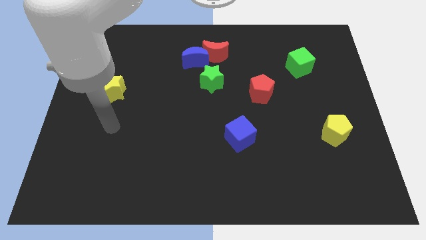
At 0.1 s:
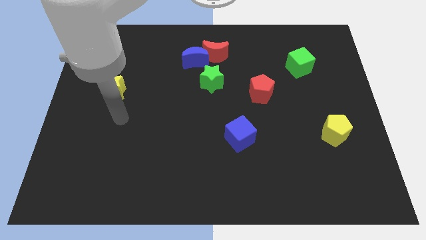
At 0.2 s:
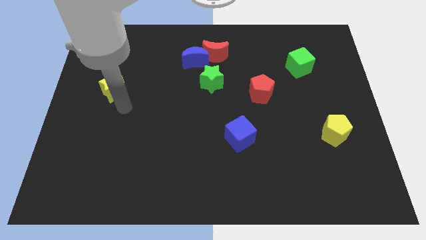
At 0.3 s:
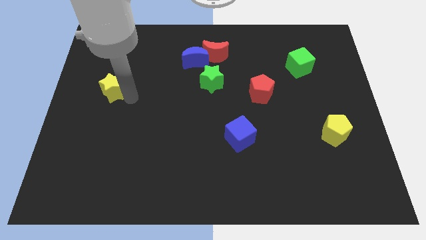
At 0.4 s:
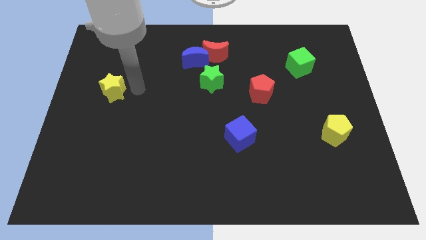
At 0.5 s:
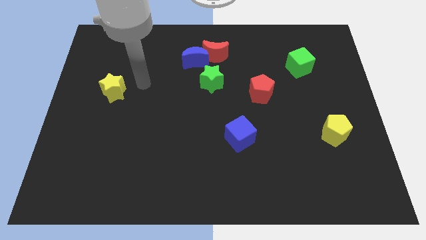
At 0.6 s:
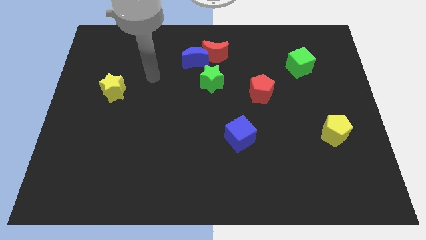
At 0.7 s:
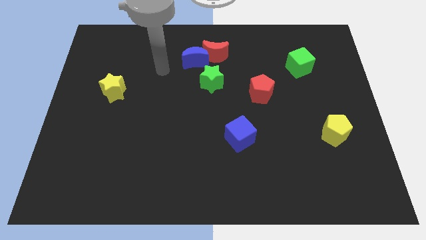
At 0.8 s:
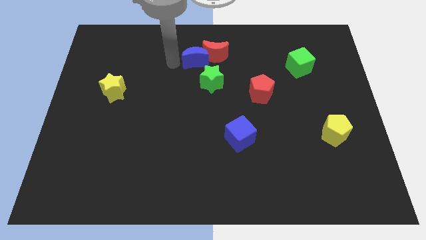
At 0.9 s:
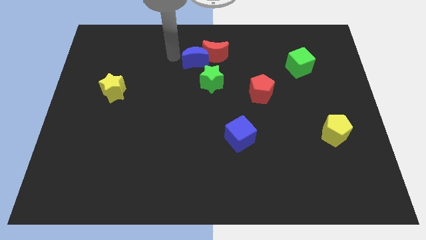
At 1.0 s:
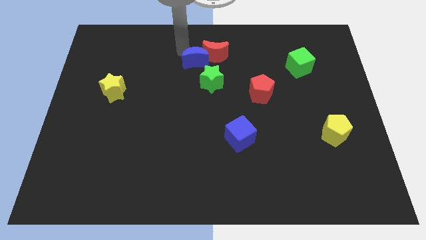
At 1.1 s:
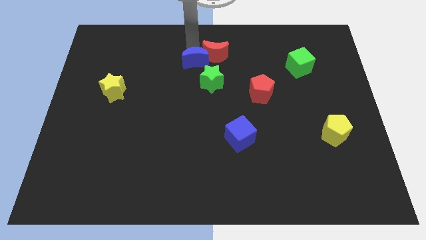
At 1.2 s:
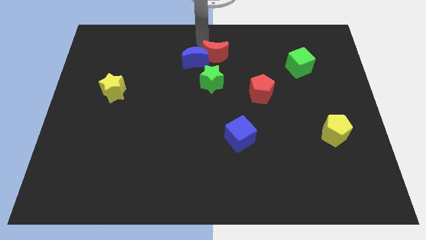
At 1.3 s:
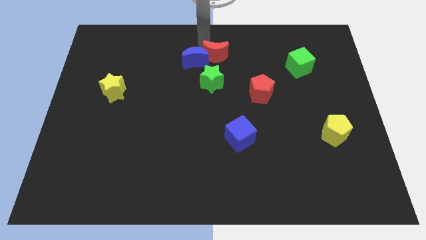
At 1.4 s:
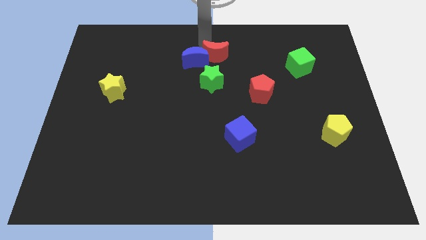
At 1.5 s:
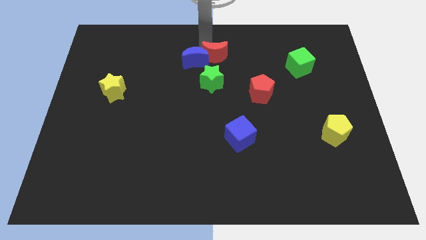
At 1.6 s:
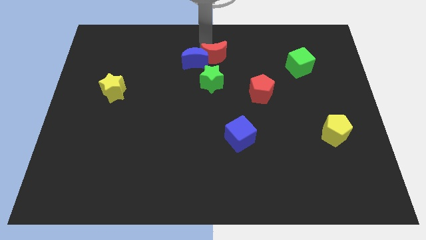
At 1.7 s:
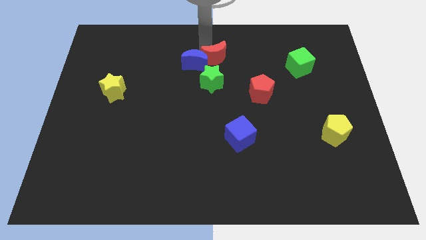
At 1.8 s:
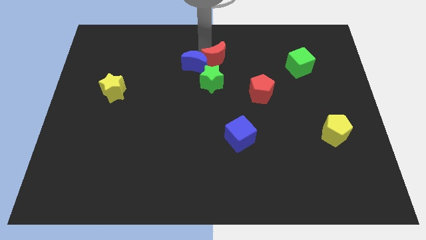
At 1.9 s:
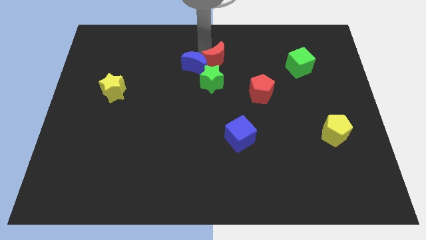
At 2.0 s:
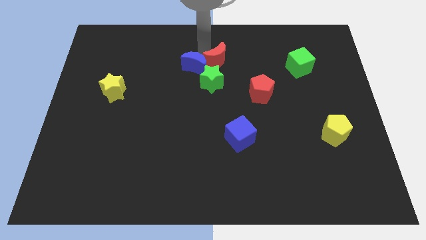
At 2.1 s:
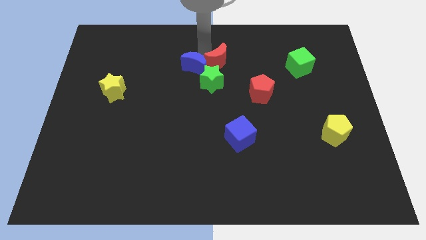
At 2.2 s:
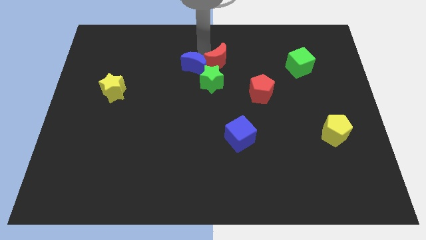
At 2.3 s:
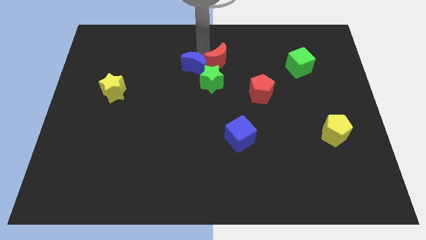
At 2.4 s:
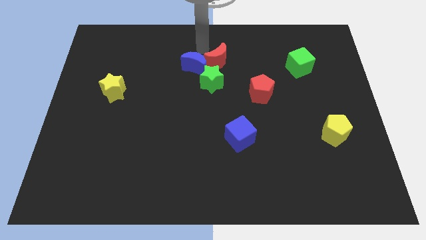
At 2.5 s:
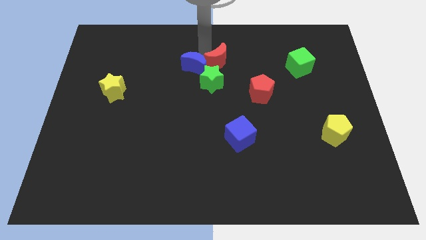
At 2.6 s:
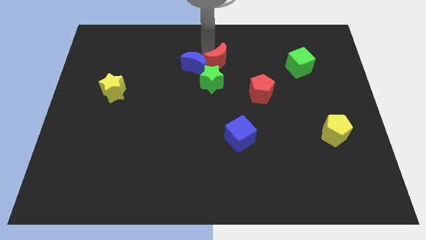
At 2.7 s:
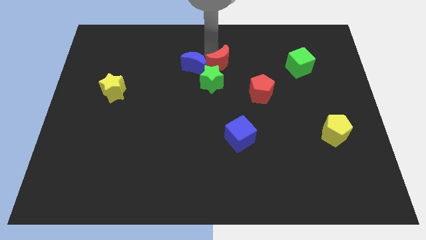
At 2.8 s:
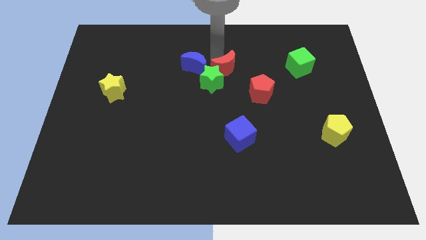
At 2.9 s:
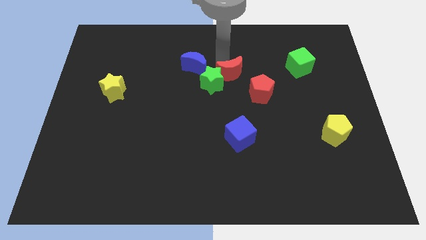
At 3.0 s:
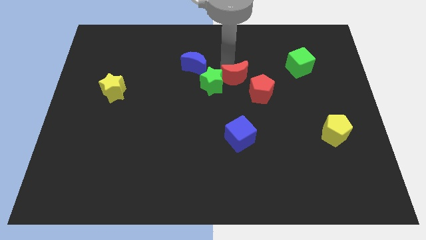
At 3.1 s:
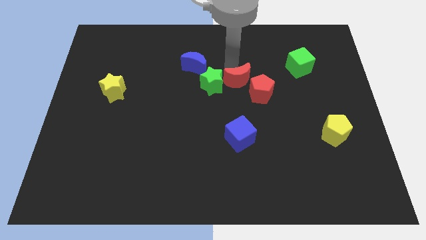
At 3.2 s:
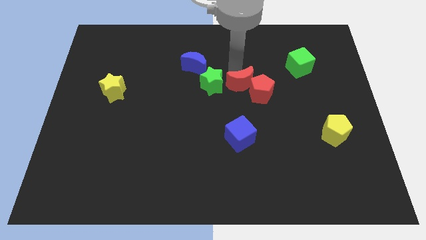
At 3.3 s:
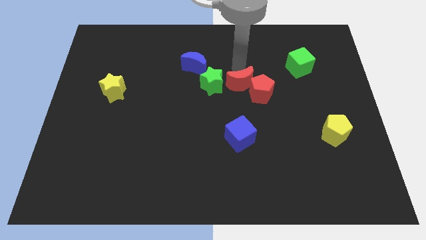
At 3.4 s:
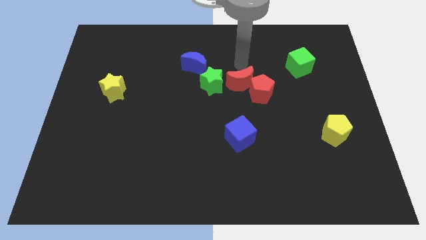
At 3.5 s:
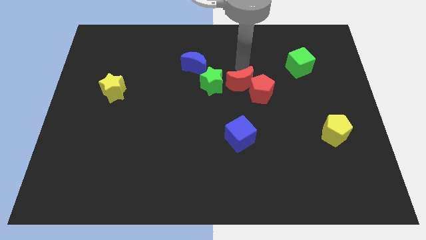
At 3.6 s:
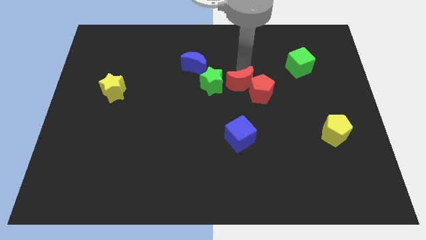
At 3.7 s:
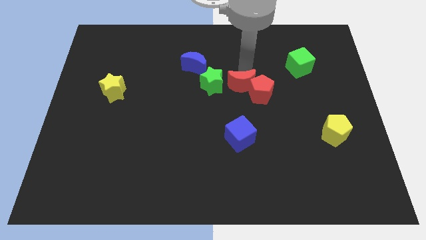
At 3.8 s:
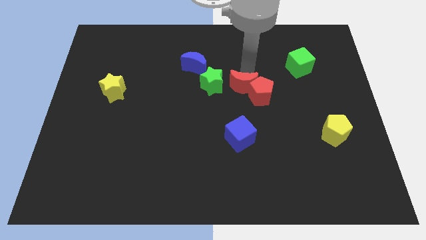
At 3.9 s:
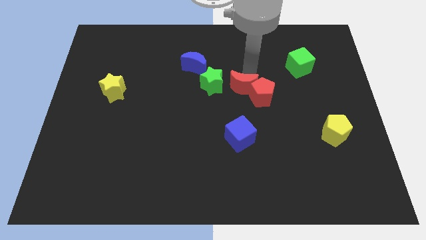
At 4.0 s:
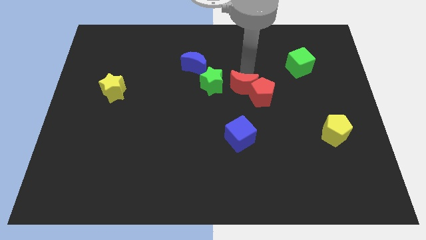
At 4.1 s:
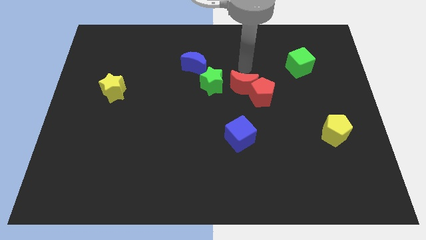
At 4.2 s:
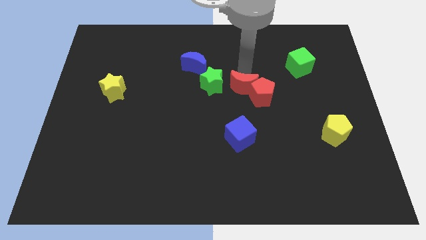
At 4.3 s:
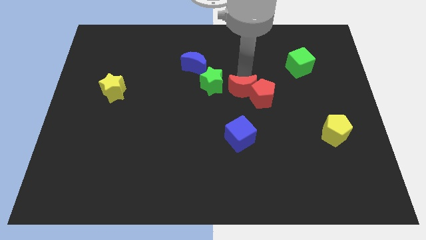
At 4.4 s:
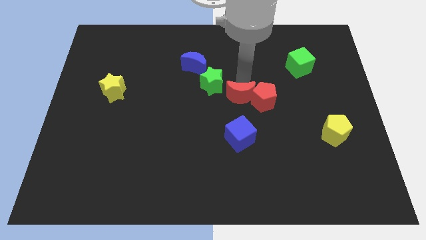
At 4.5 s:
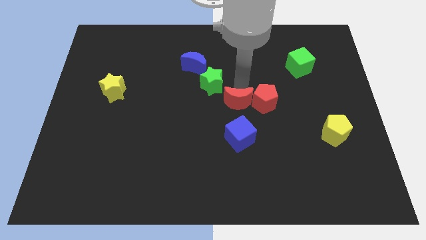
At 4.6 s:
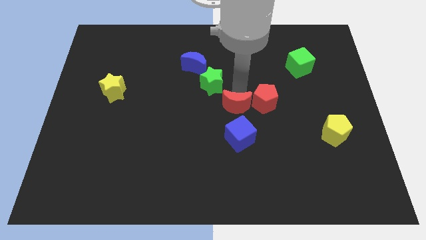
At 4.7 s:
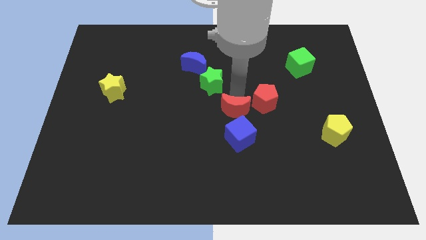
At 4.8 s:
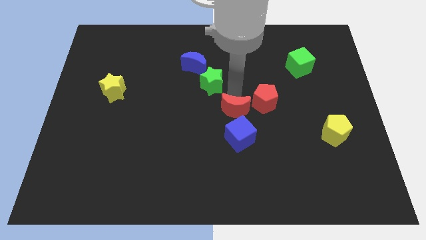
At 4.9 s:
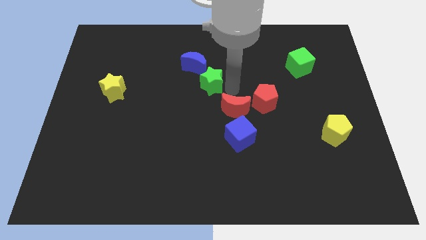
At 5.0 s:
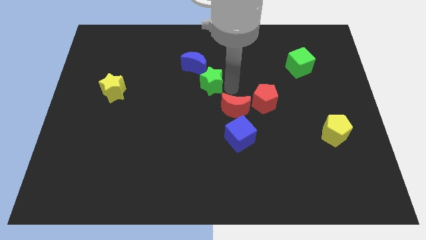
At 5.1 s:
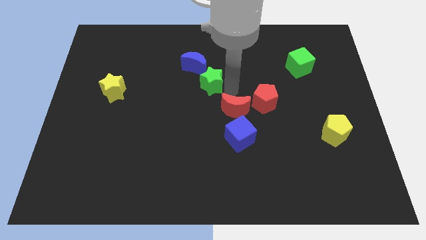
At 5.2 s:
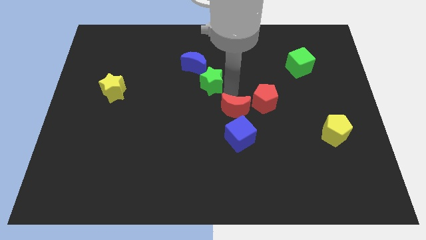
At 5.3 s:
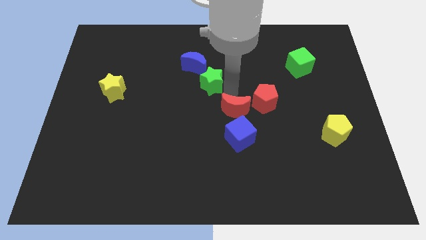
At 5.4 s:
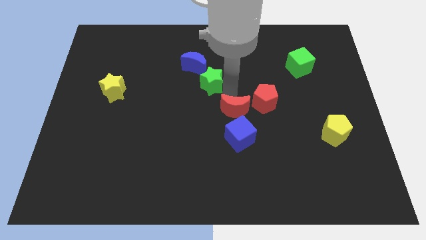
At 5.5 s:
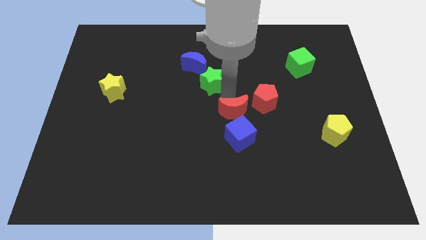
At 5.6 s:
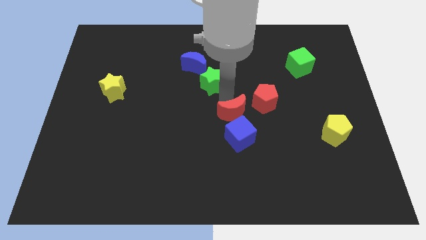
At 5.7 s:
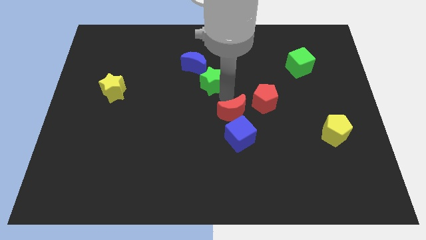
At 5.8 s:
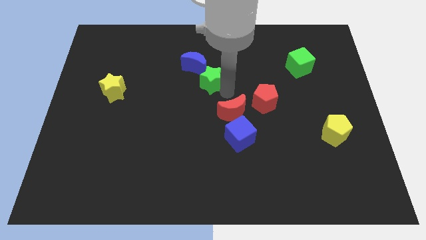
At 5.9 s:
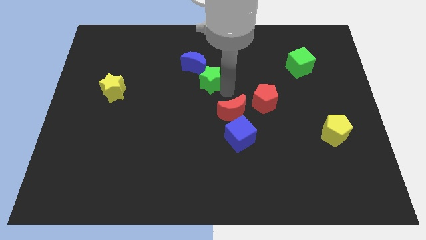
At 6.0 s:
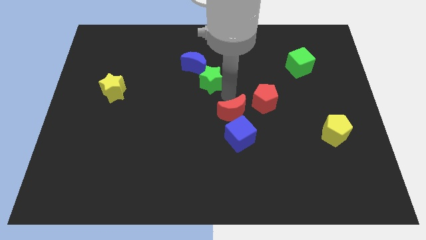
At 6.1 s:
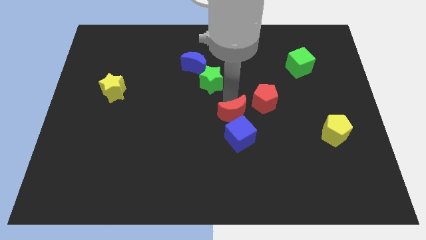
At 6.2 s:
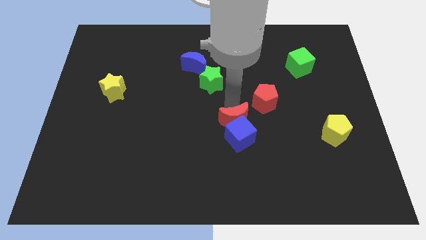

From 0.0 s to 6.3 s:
slide the red moon to the blue cube

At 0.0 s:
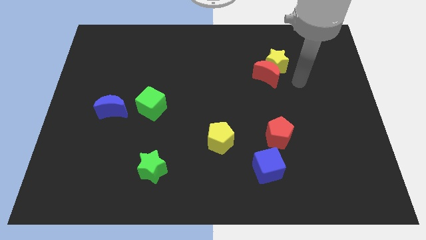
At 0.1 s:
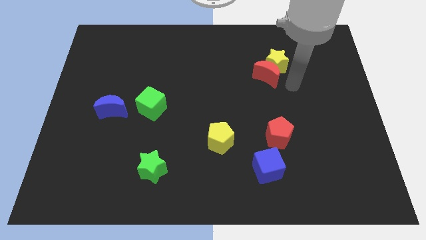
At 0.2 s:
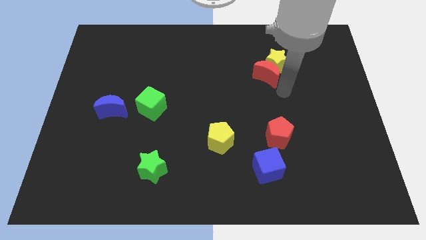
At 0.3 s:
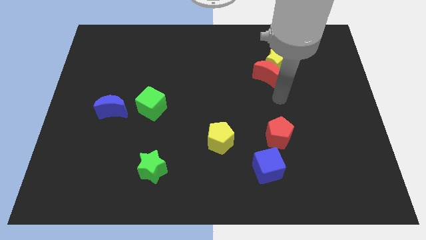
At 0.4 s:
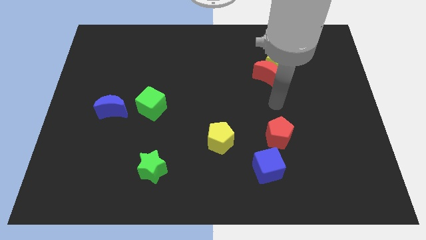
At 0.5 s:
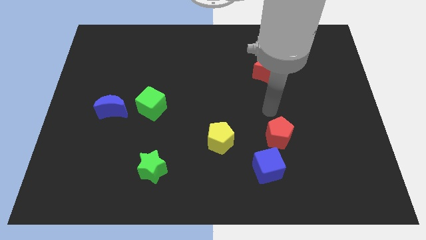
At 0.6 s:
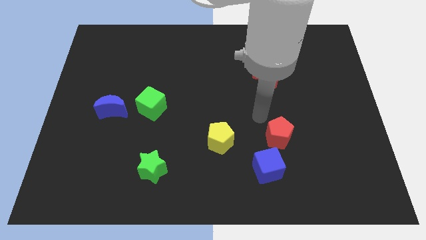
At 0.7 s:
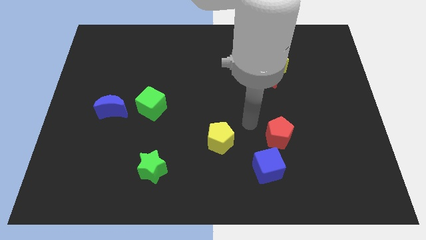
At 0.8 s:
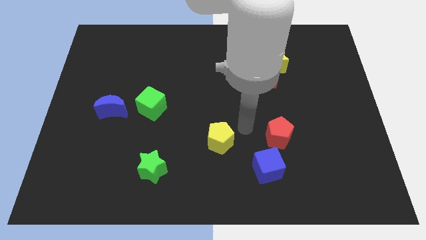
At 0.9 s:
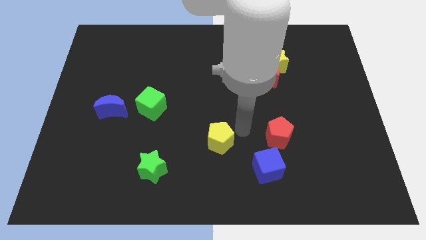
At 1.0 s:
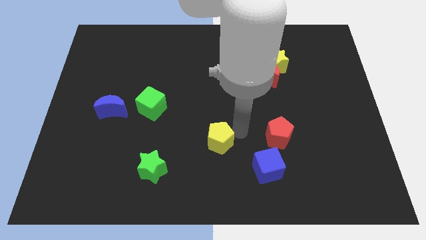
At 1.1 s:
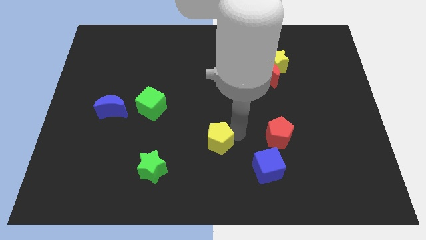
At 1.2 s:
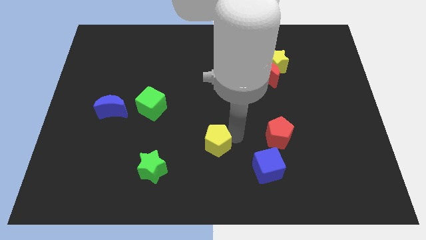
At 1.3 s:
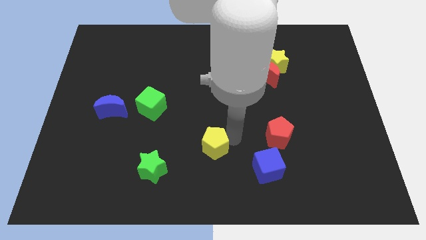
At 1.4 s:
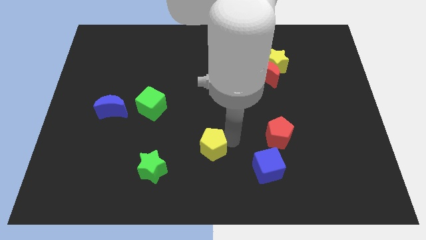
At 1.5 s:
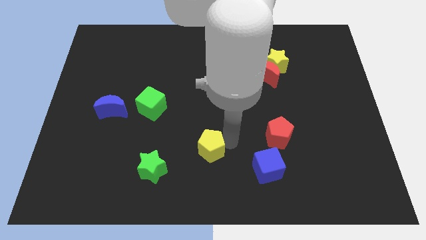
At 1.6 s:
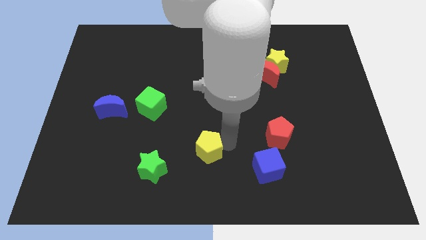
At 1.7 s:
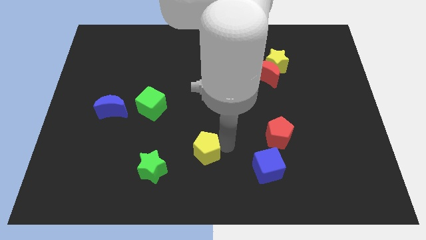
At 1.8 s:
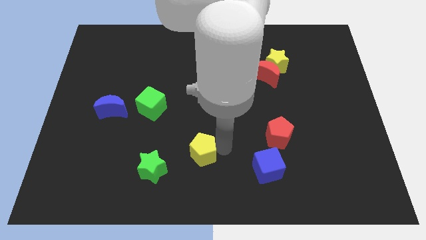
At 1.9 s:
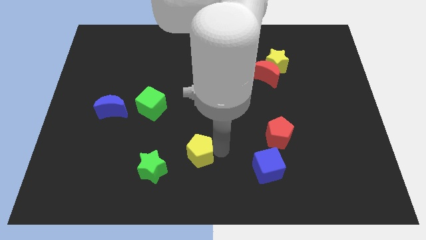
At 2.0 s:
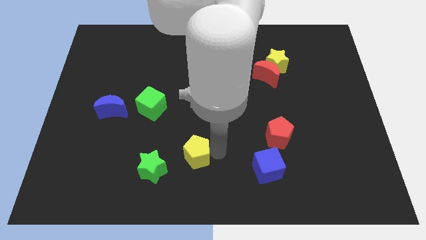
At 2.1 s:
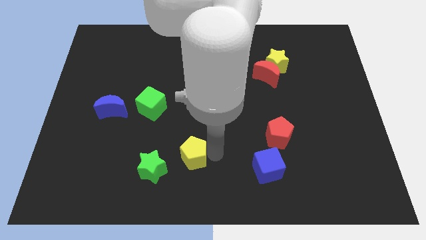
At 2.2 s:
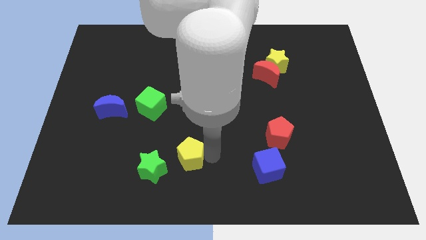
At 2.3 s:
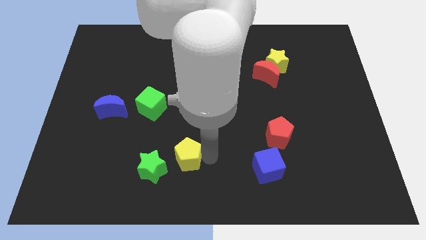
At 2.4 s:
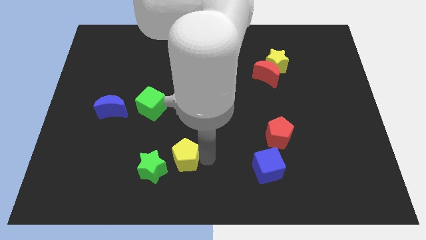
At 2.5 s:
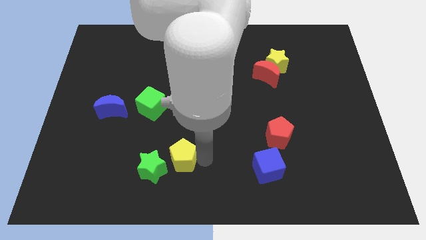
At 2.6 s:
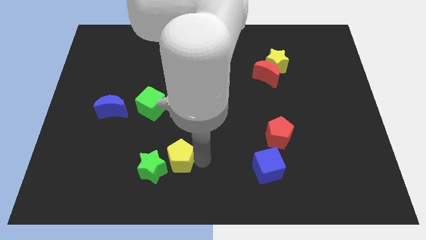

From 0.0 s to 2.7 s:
put the yellow pentagon next to the green star
